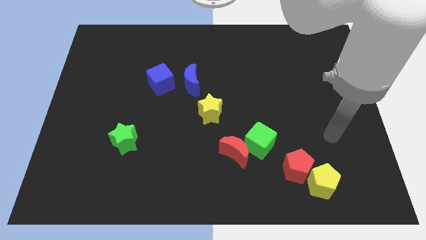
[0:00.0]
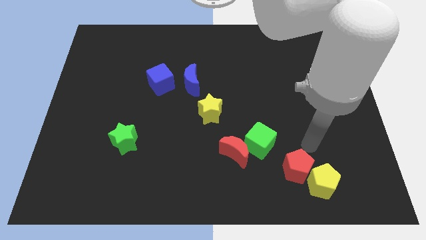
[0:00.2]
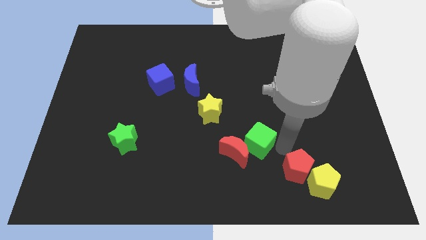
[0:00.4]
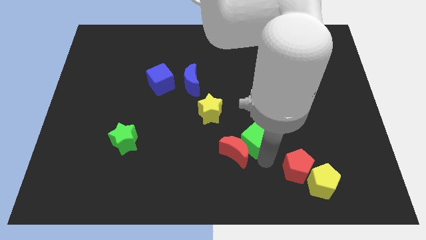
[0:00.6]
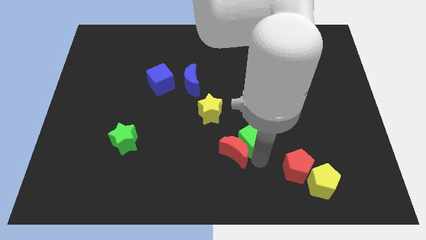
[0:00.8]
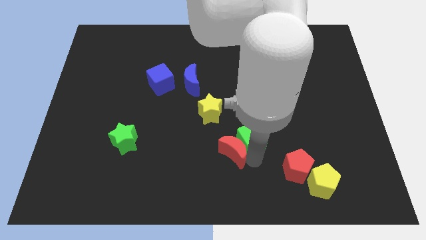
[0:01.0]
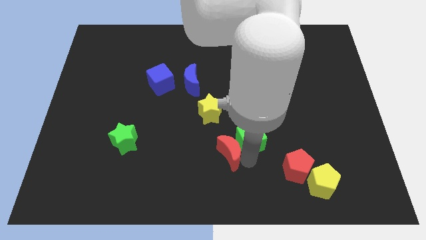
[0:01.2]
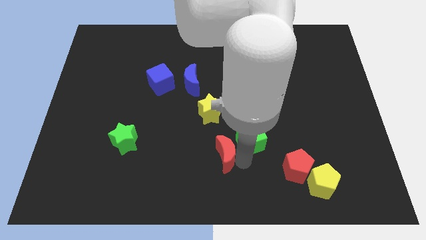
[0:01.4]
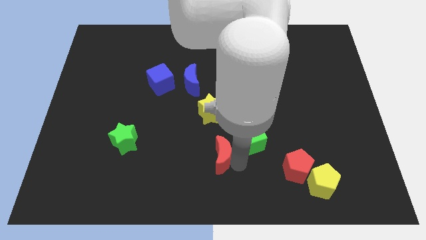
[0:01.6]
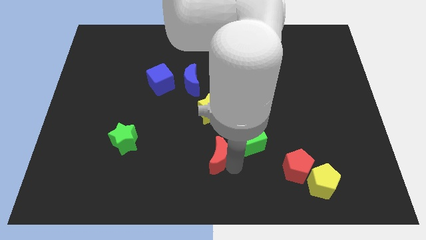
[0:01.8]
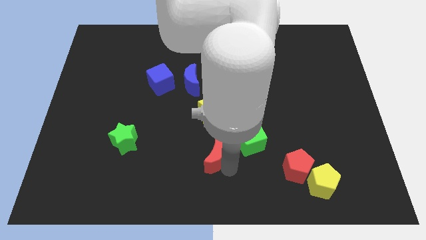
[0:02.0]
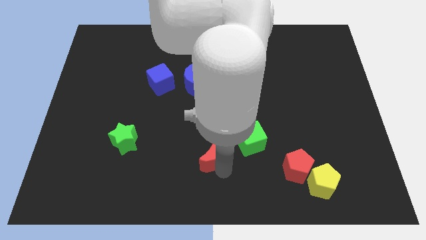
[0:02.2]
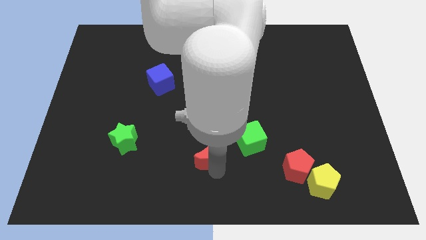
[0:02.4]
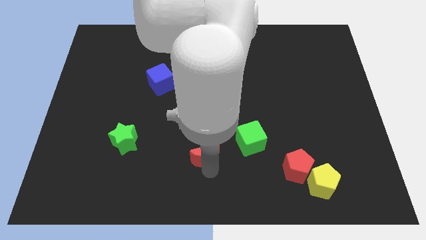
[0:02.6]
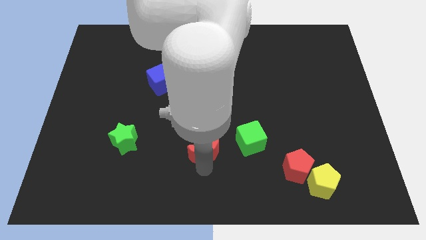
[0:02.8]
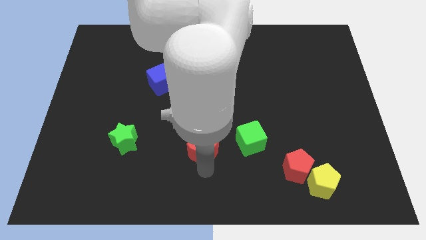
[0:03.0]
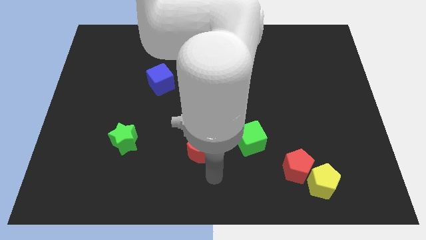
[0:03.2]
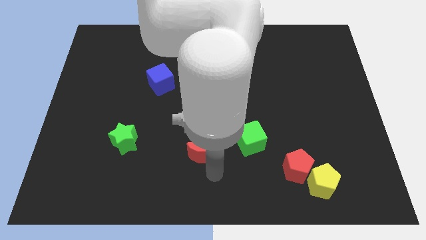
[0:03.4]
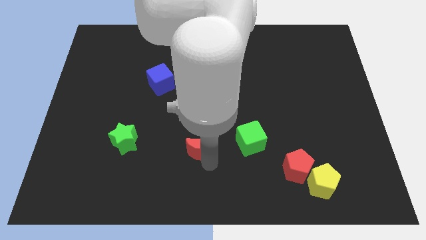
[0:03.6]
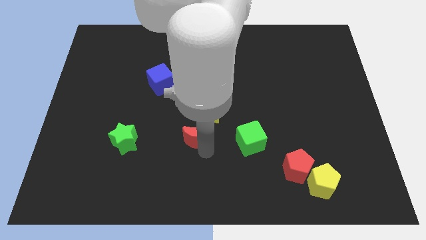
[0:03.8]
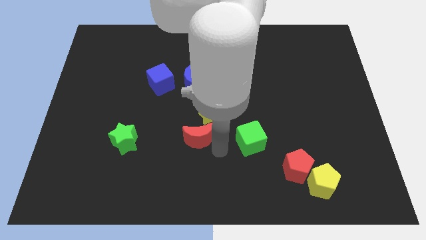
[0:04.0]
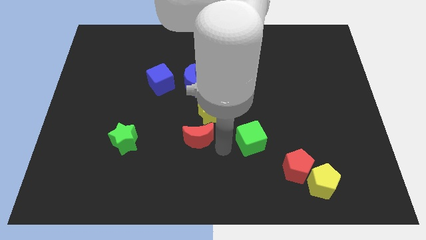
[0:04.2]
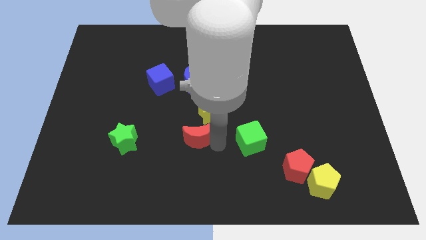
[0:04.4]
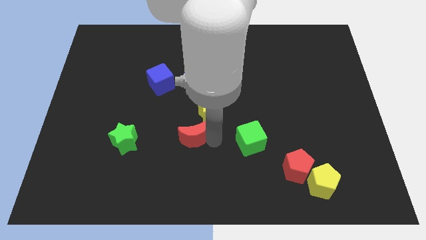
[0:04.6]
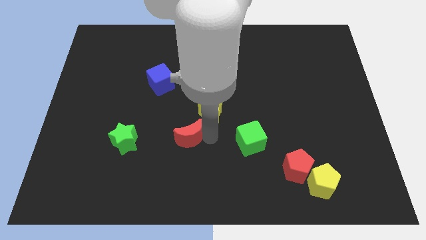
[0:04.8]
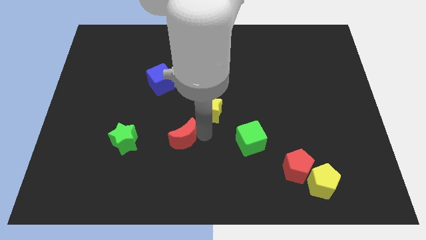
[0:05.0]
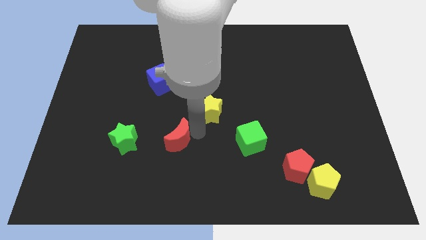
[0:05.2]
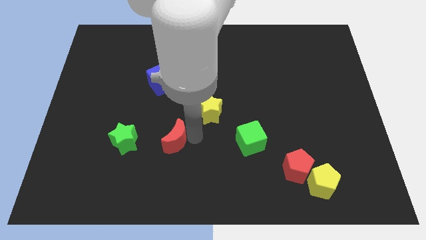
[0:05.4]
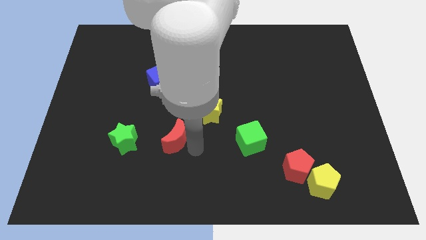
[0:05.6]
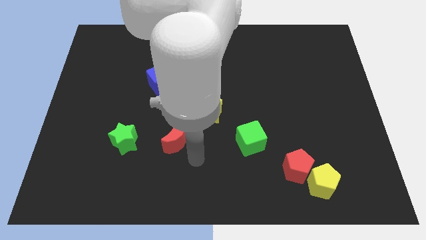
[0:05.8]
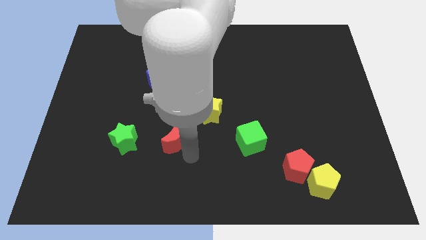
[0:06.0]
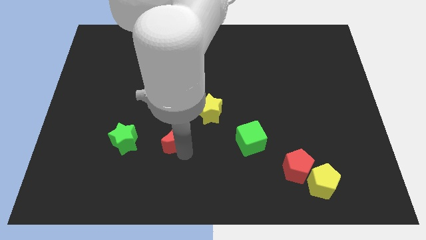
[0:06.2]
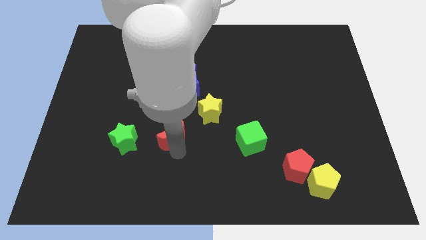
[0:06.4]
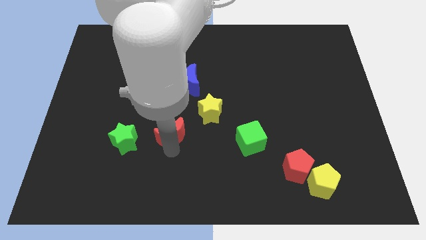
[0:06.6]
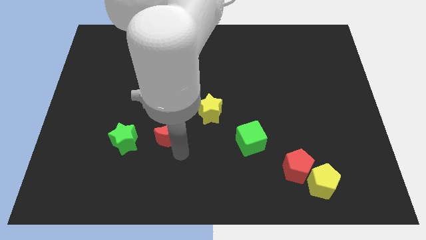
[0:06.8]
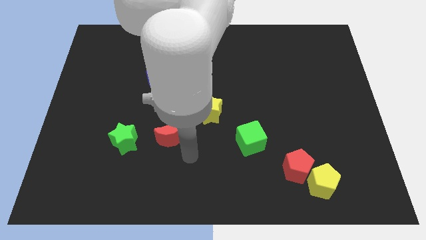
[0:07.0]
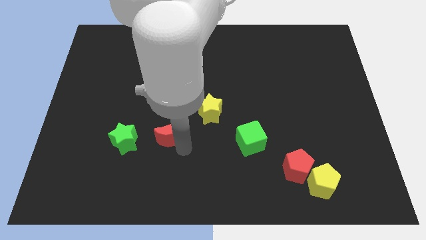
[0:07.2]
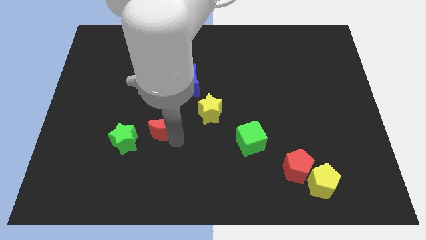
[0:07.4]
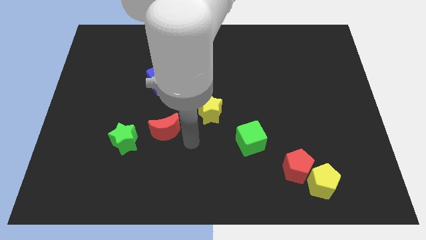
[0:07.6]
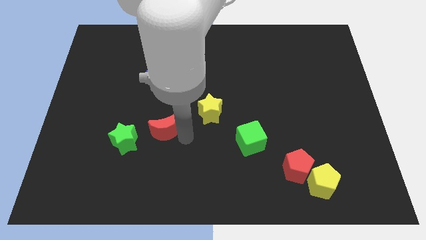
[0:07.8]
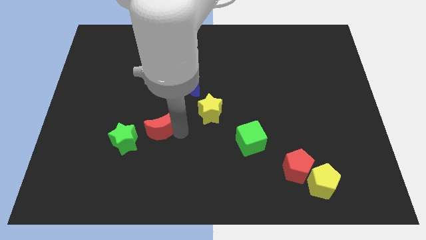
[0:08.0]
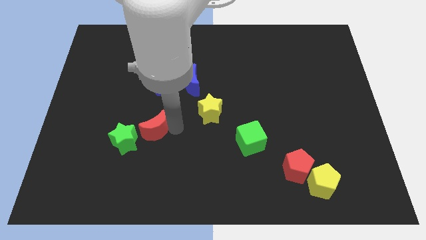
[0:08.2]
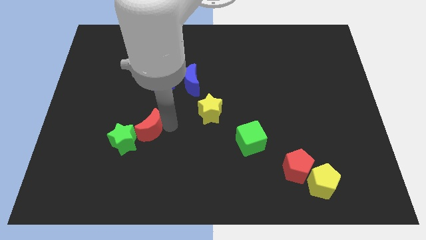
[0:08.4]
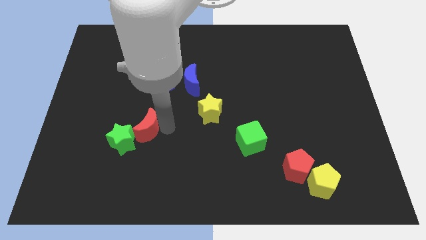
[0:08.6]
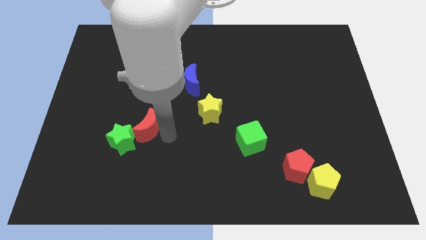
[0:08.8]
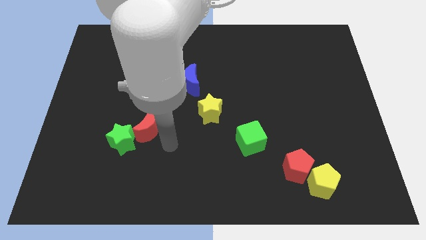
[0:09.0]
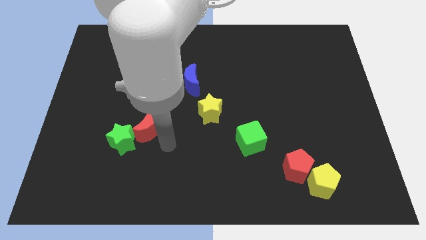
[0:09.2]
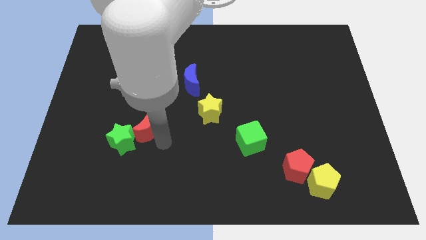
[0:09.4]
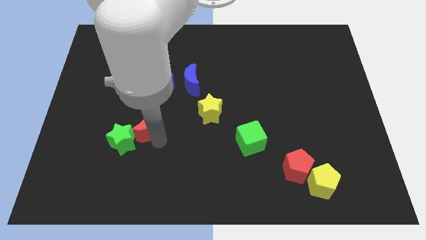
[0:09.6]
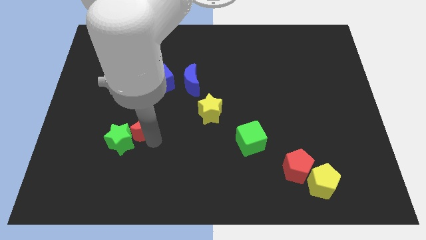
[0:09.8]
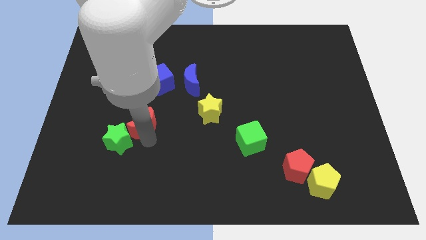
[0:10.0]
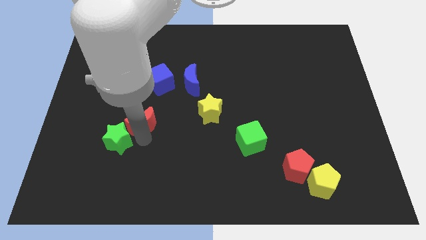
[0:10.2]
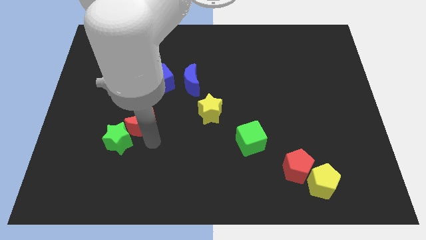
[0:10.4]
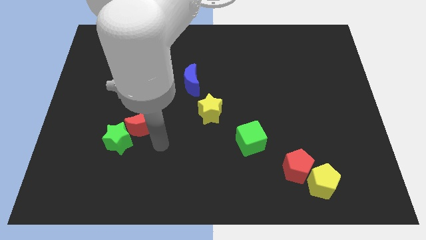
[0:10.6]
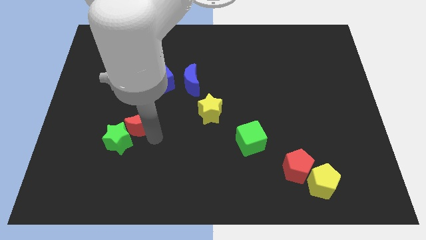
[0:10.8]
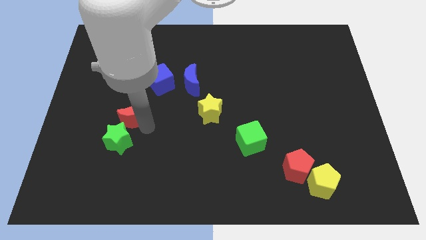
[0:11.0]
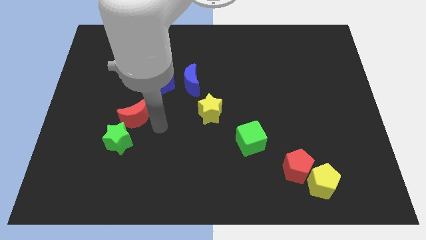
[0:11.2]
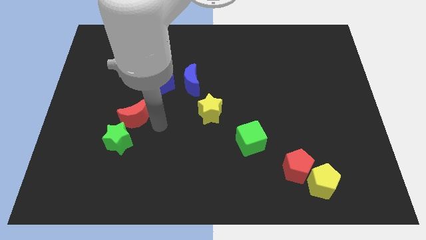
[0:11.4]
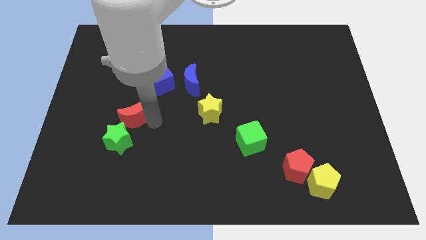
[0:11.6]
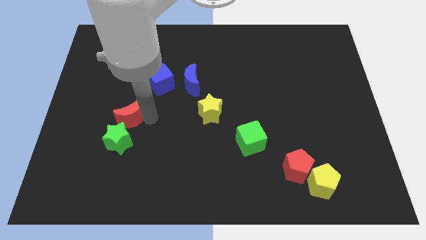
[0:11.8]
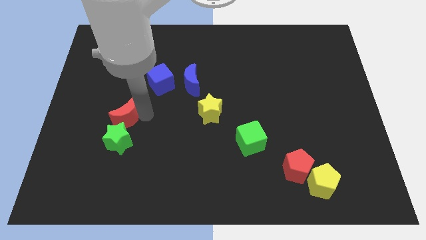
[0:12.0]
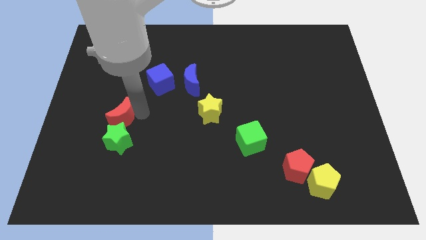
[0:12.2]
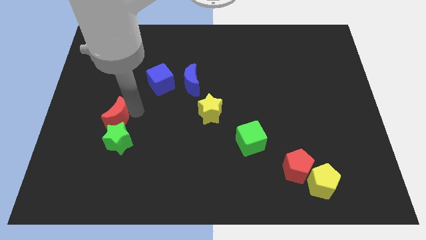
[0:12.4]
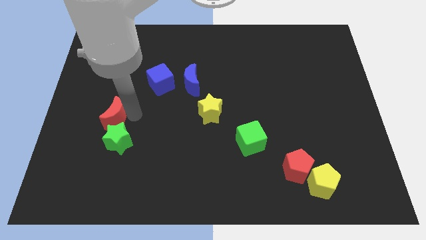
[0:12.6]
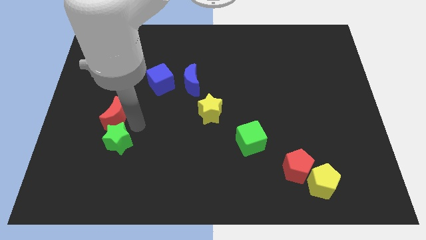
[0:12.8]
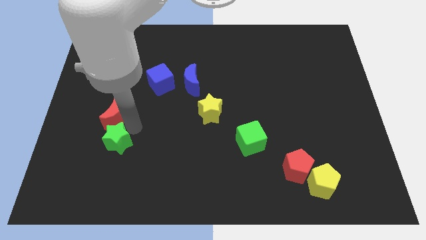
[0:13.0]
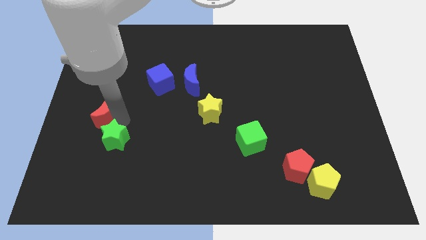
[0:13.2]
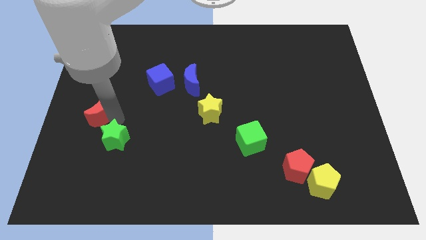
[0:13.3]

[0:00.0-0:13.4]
move the red moon to the left side
